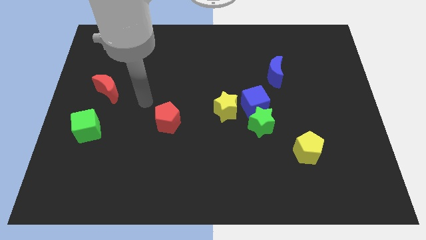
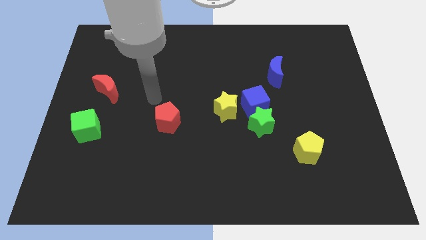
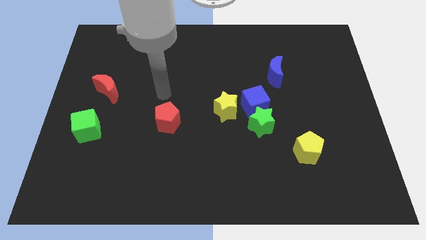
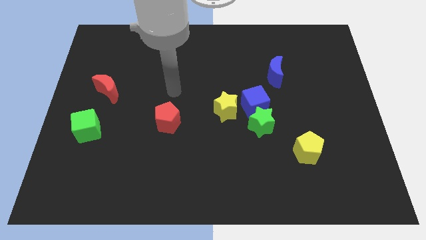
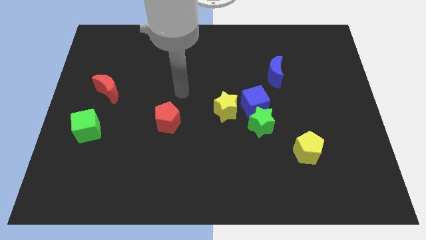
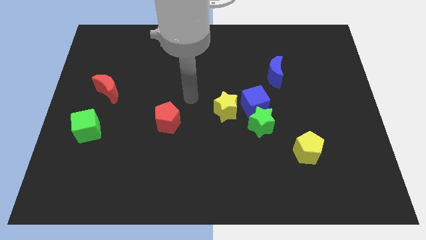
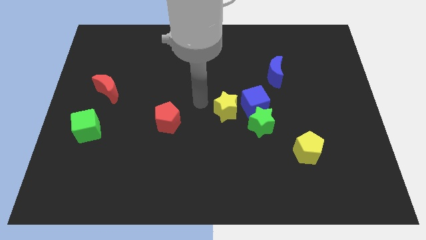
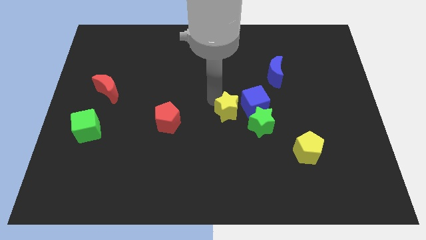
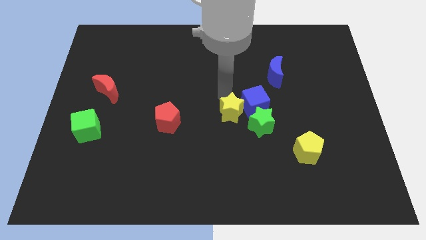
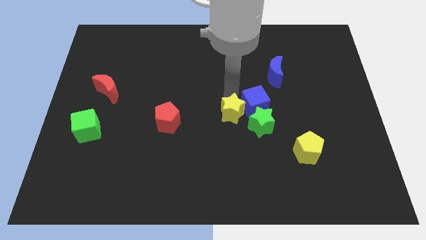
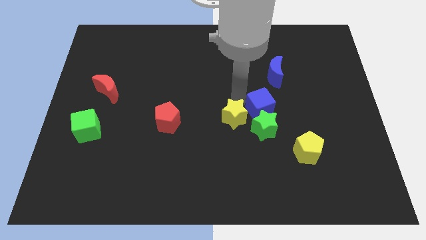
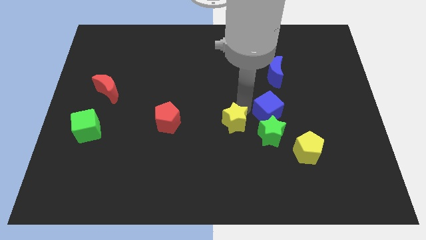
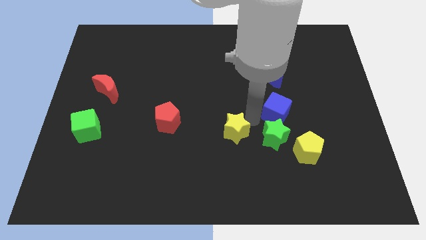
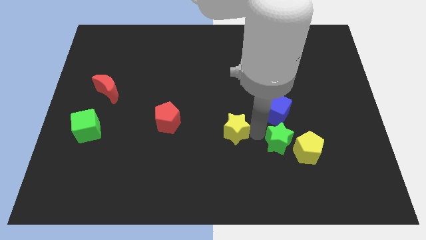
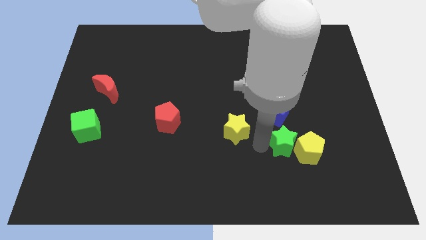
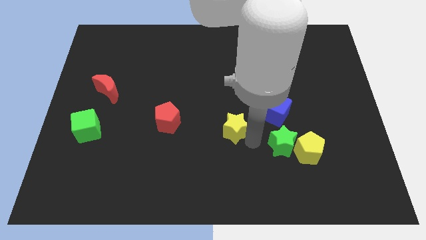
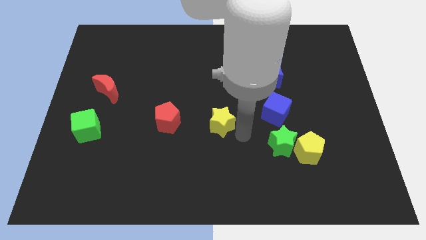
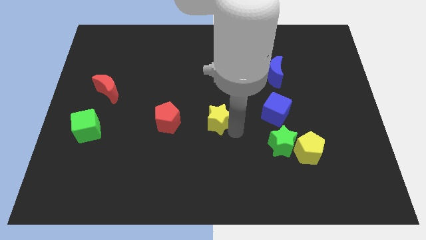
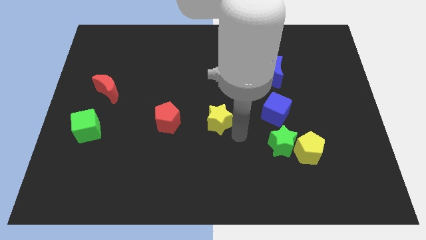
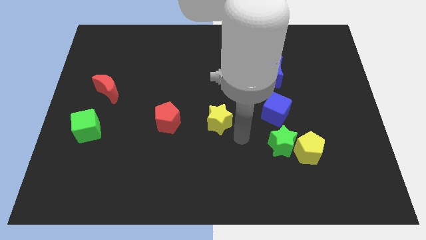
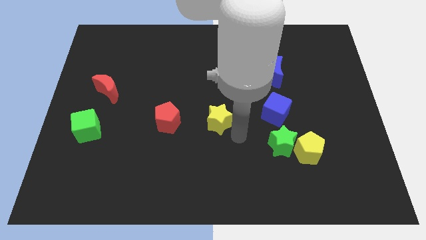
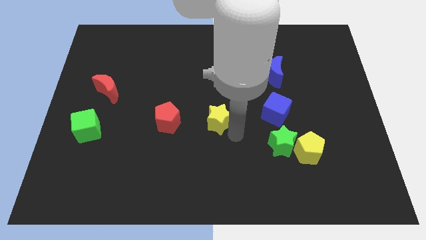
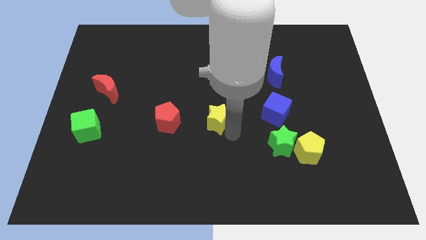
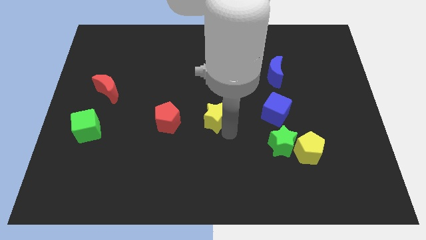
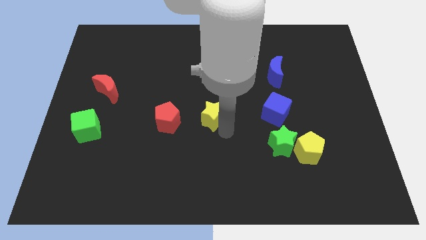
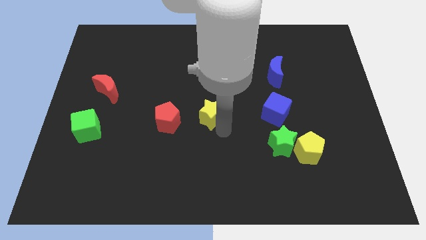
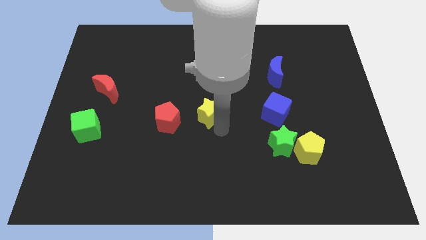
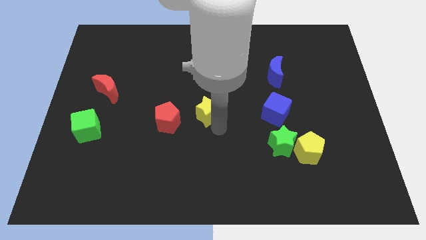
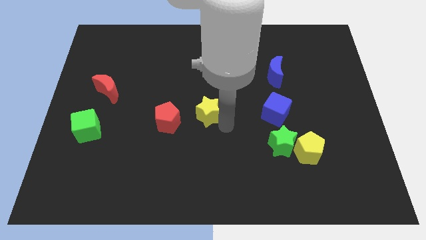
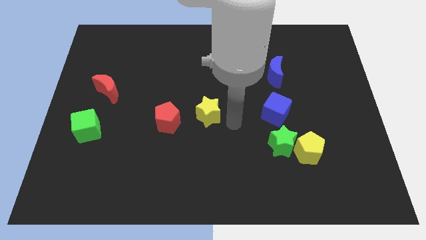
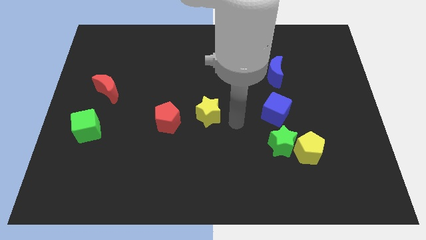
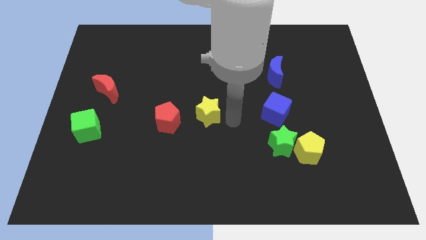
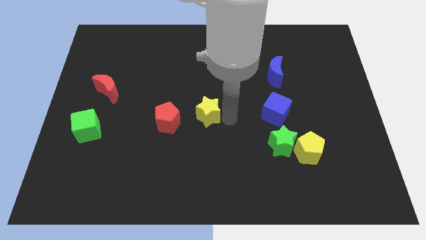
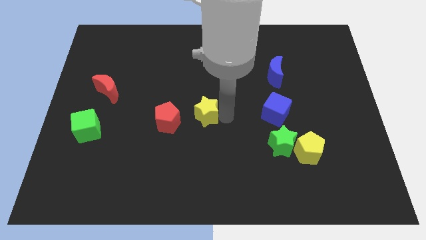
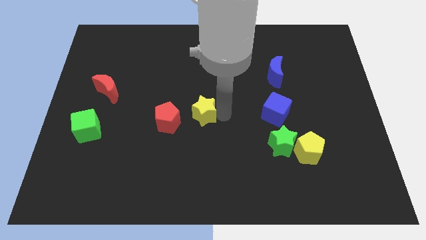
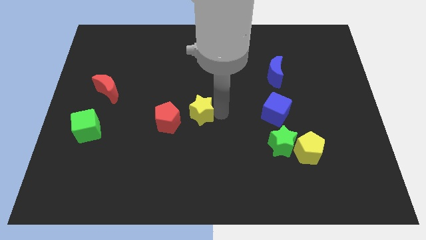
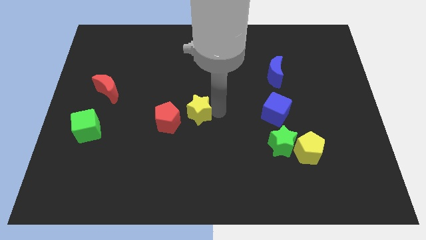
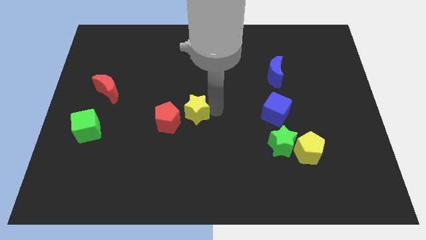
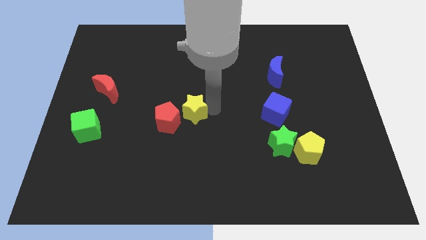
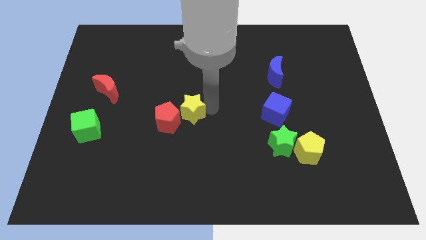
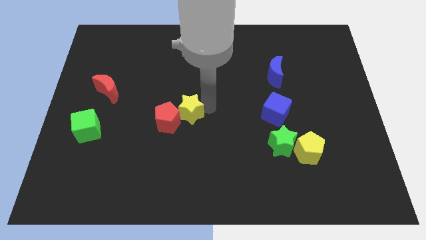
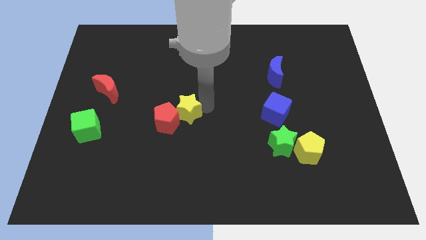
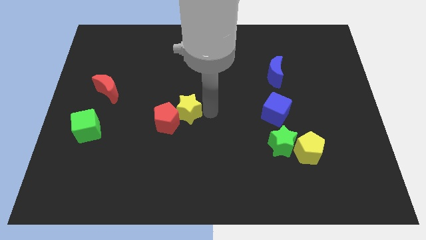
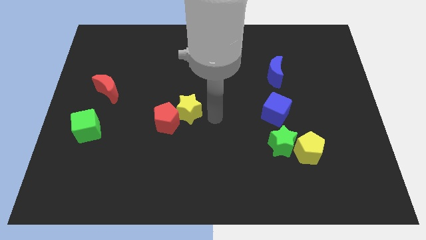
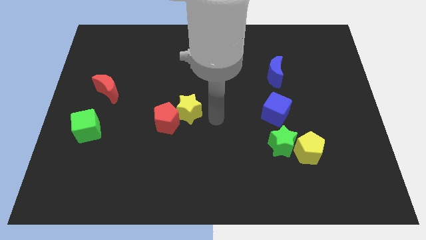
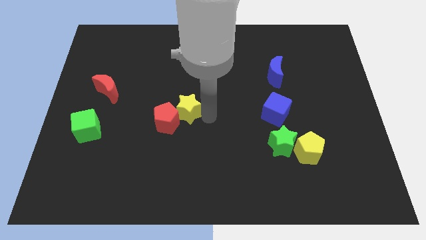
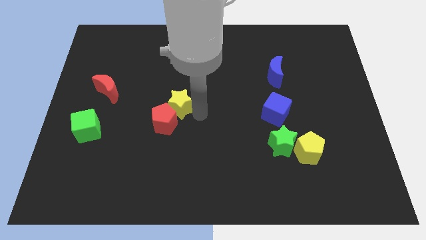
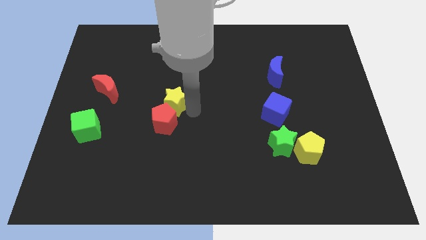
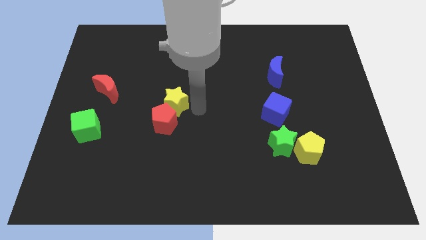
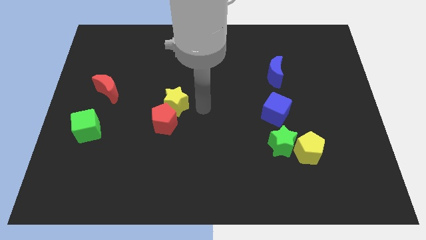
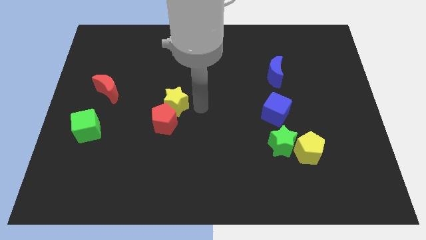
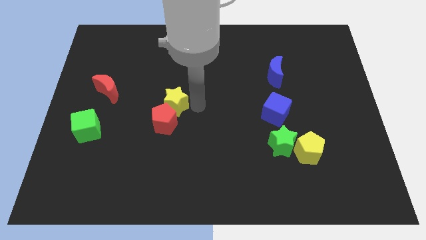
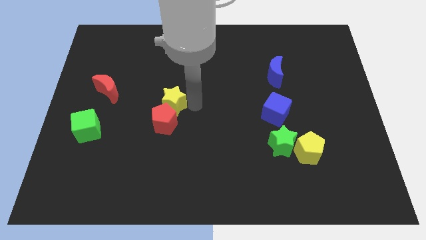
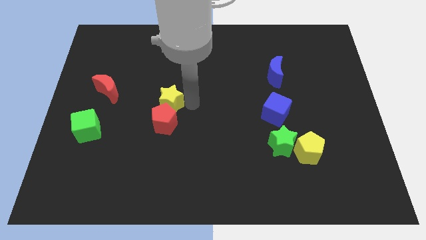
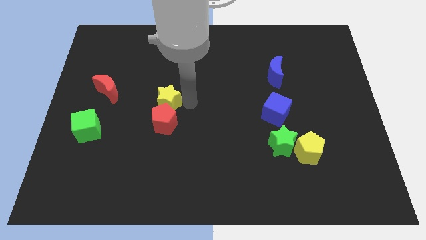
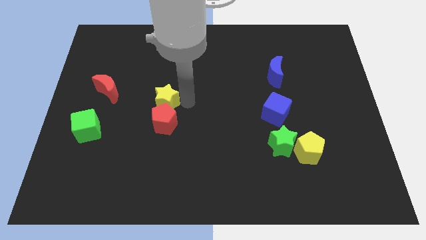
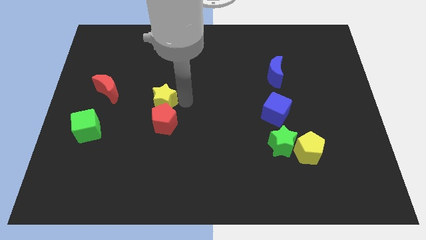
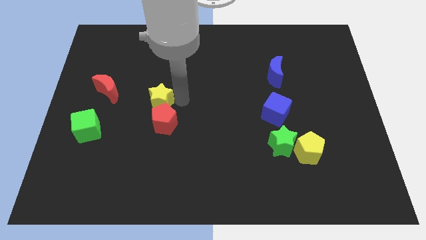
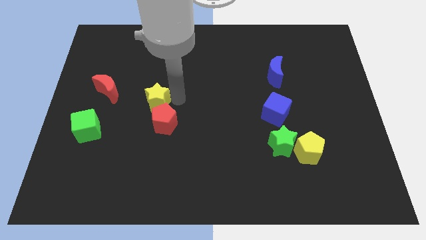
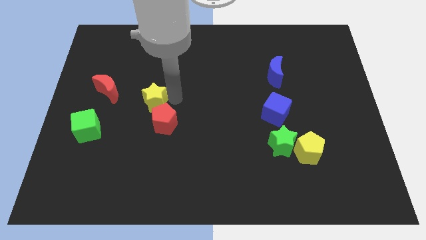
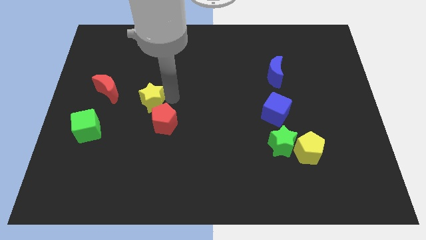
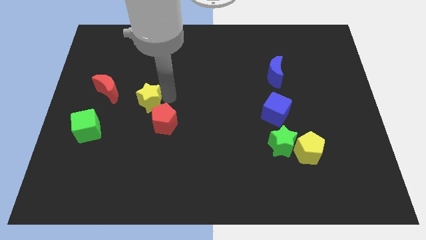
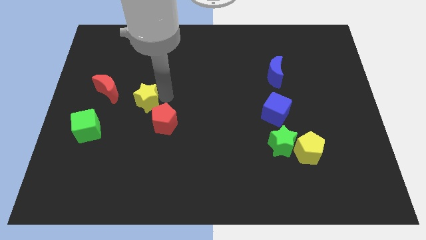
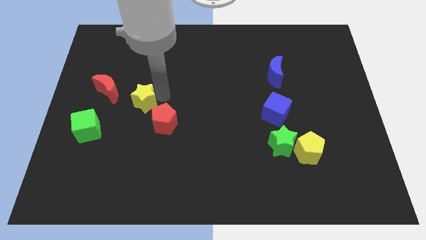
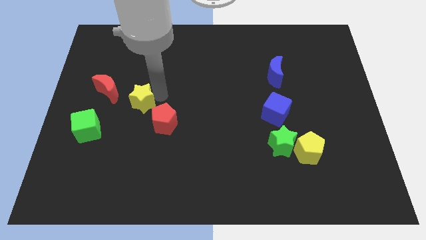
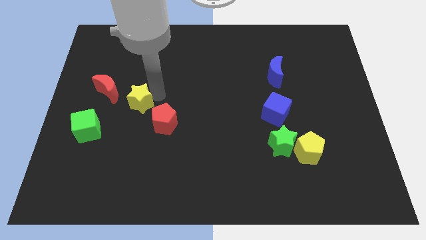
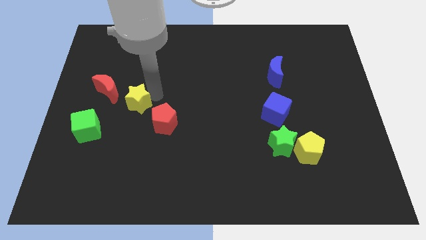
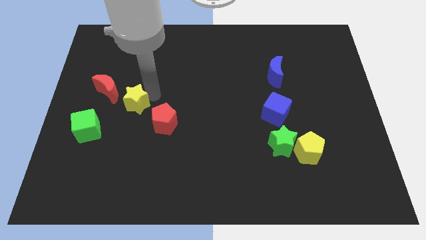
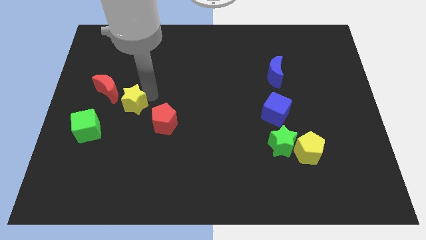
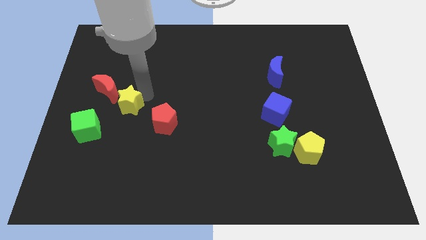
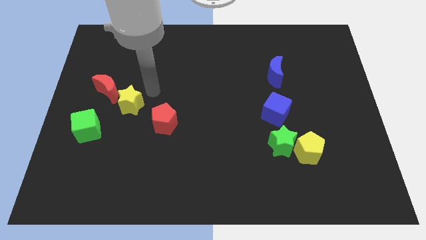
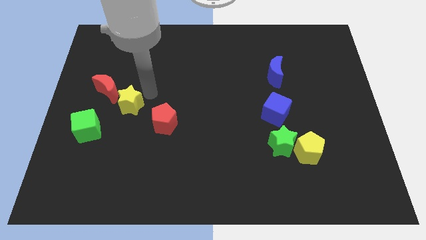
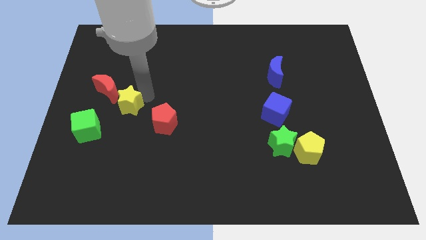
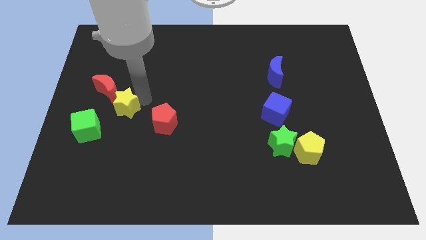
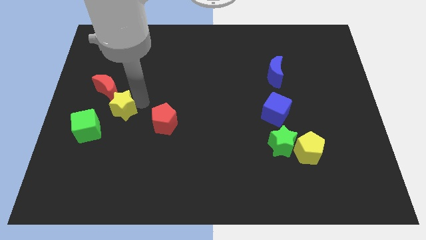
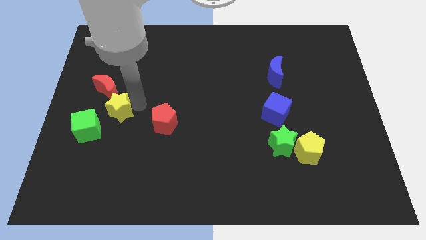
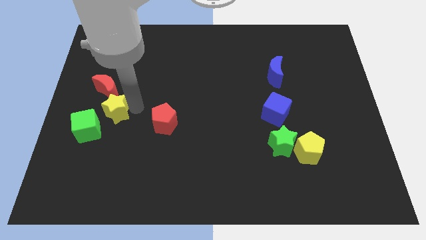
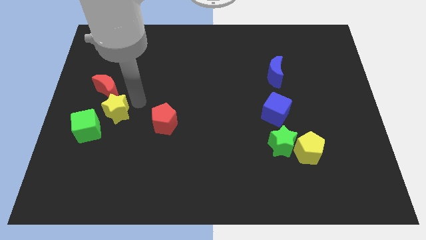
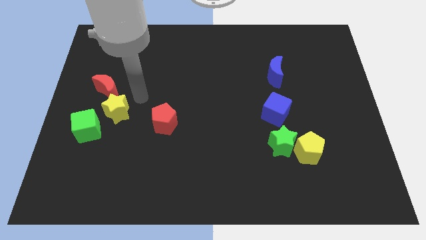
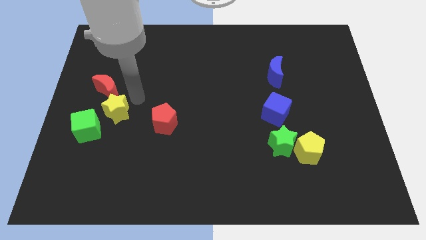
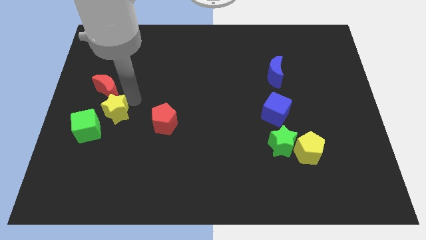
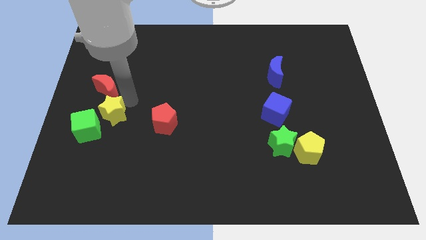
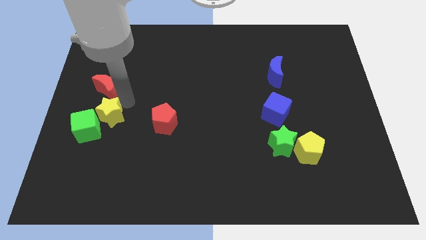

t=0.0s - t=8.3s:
put the yellow star to the green cube

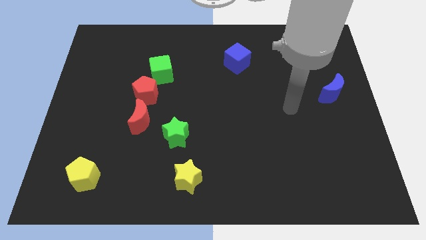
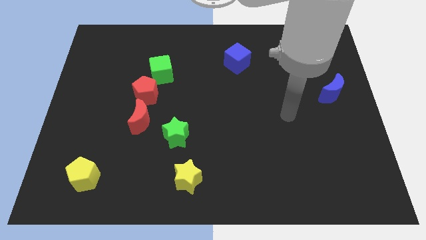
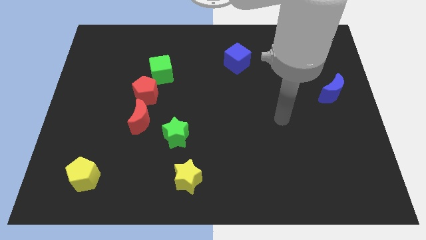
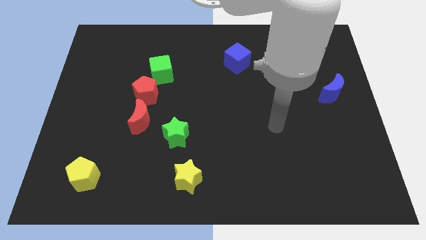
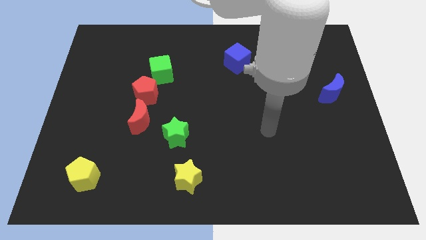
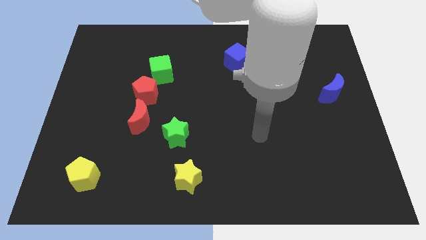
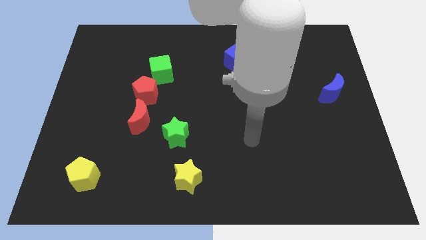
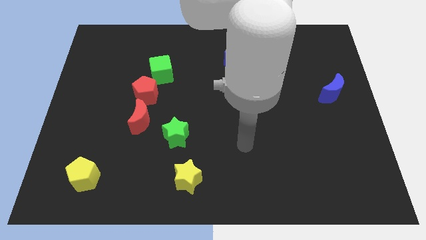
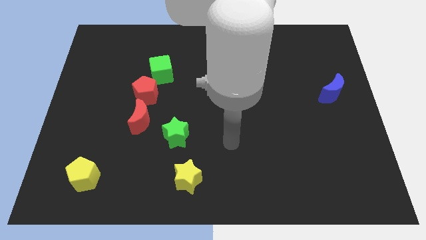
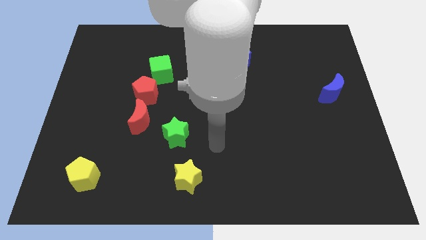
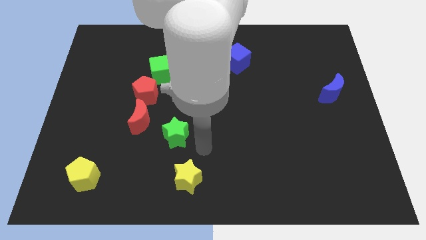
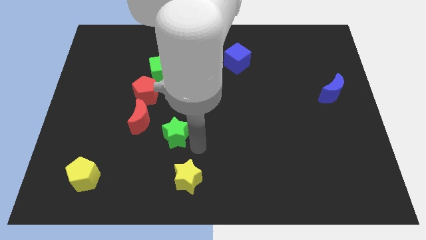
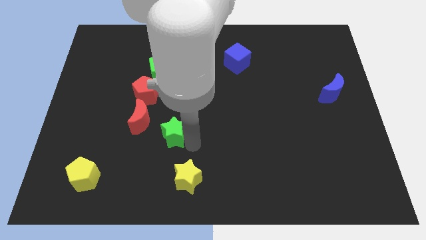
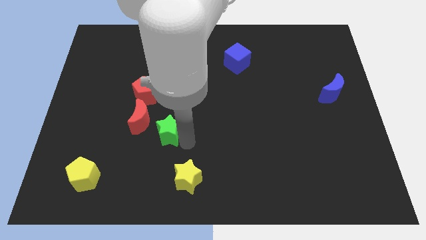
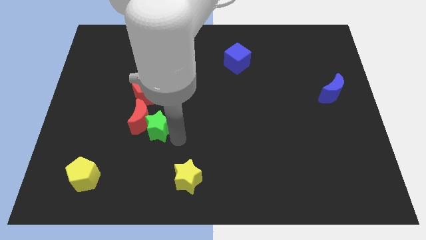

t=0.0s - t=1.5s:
move the green star close to the red moon
